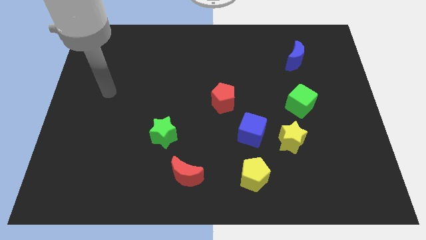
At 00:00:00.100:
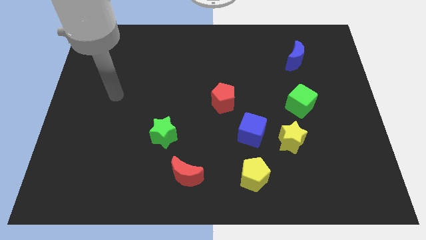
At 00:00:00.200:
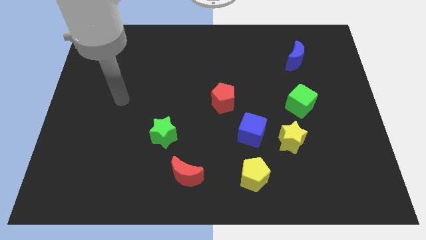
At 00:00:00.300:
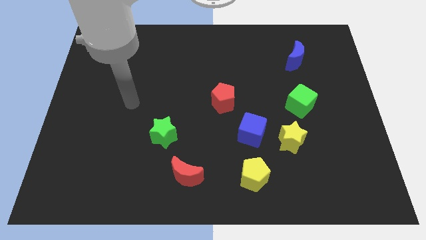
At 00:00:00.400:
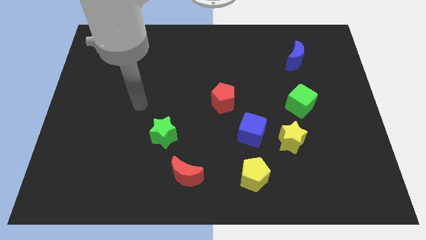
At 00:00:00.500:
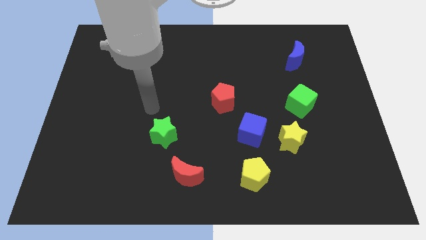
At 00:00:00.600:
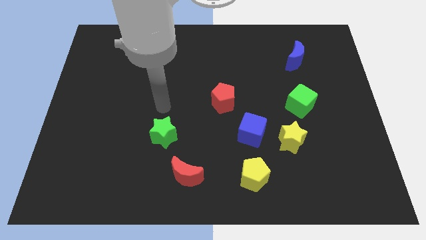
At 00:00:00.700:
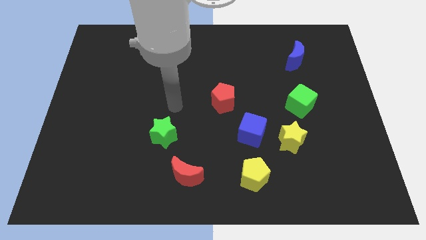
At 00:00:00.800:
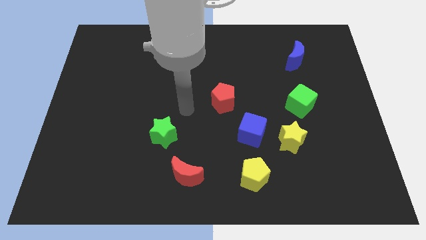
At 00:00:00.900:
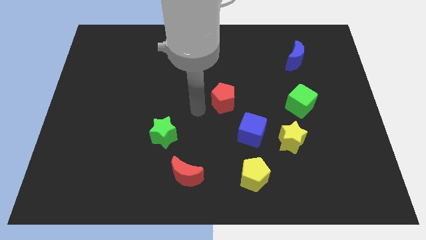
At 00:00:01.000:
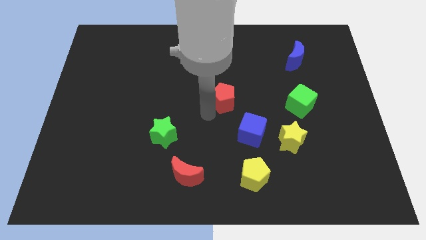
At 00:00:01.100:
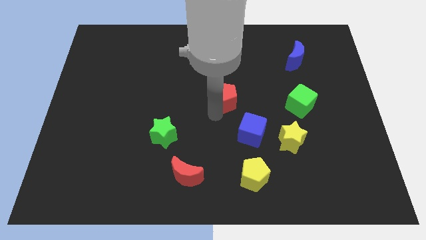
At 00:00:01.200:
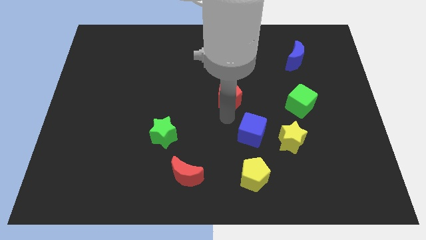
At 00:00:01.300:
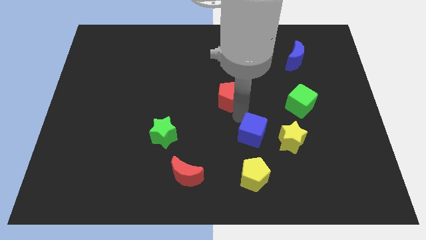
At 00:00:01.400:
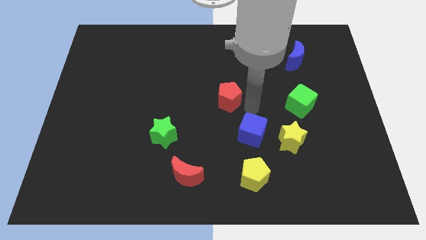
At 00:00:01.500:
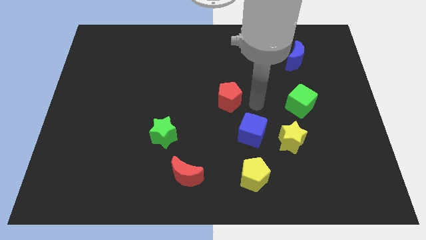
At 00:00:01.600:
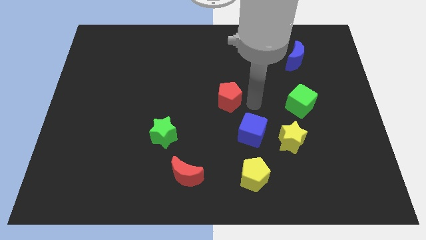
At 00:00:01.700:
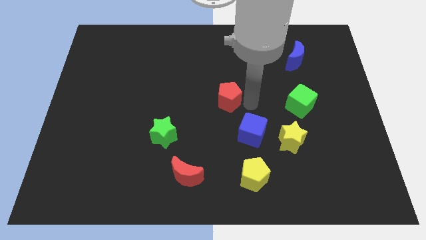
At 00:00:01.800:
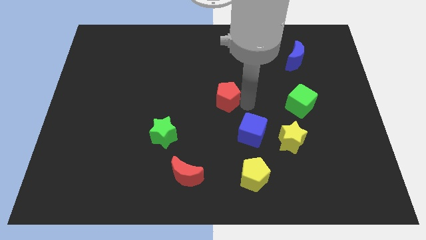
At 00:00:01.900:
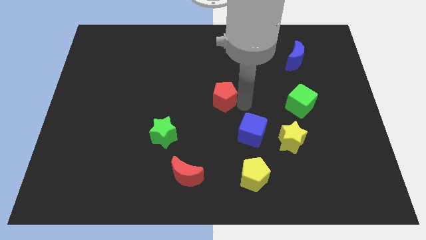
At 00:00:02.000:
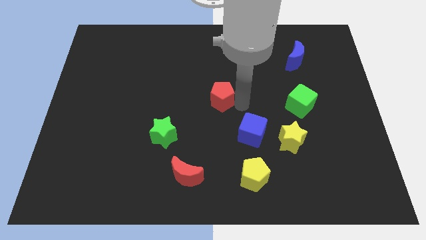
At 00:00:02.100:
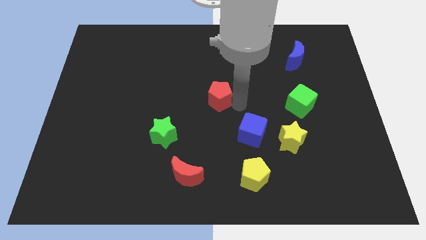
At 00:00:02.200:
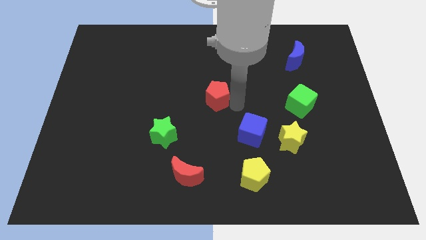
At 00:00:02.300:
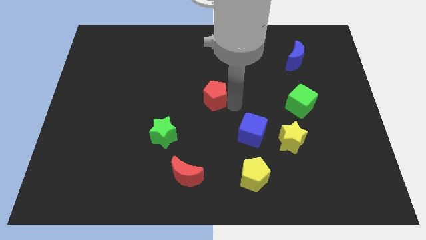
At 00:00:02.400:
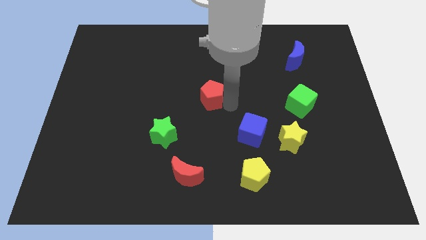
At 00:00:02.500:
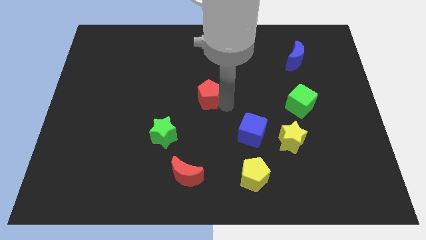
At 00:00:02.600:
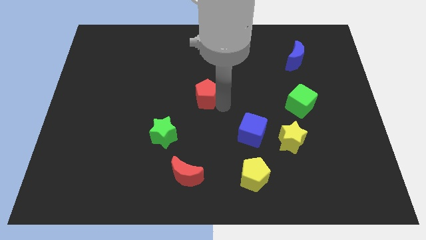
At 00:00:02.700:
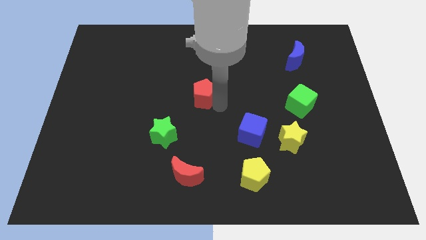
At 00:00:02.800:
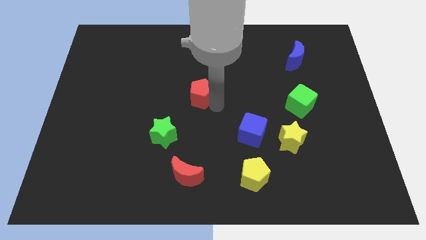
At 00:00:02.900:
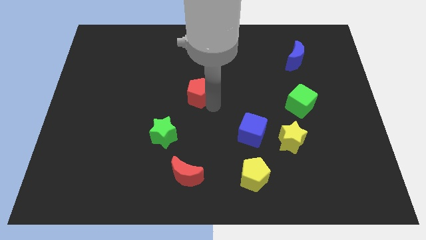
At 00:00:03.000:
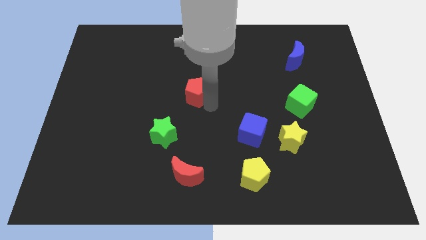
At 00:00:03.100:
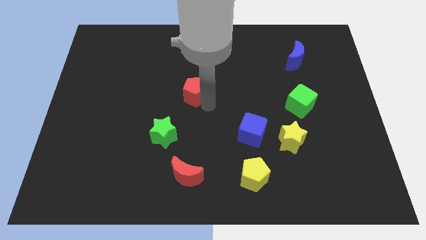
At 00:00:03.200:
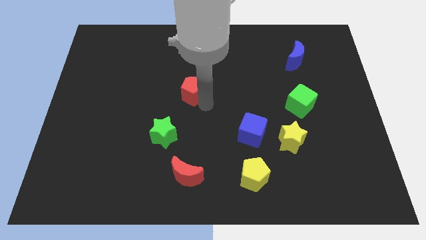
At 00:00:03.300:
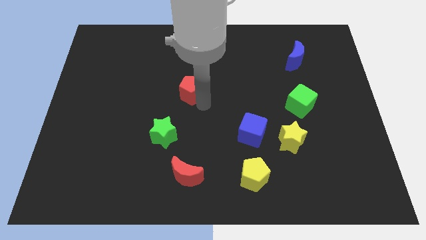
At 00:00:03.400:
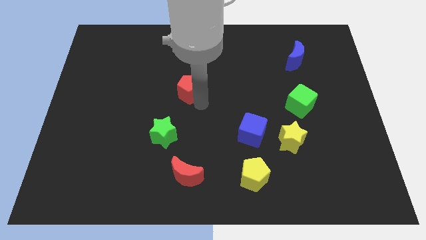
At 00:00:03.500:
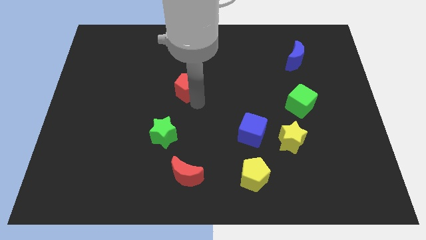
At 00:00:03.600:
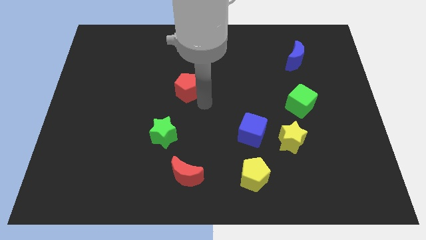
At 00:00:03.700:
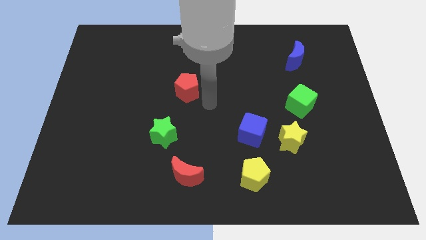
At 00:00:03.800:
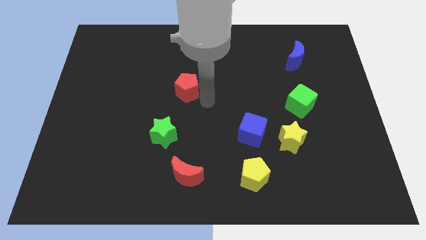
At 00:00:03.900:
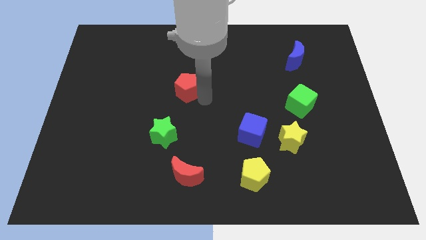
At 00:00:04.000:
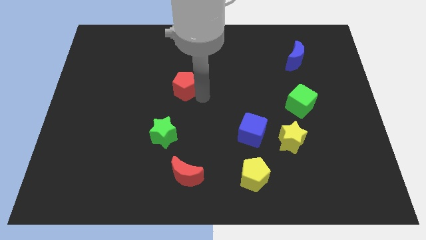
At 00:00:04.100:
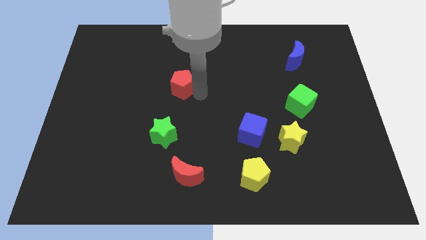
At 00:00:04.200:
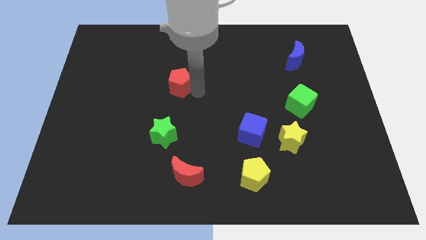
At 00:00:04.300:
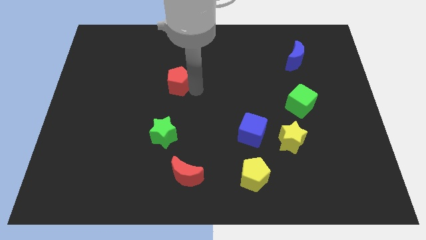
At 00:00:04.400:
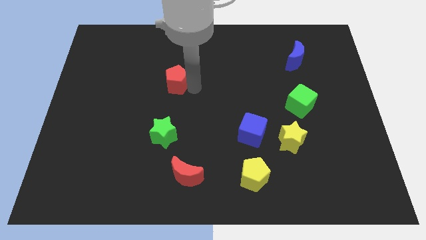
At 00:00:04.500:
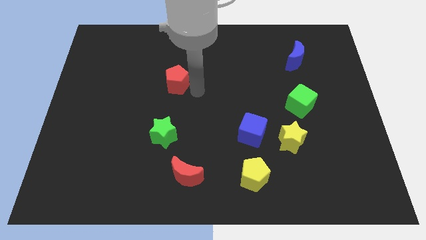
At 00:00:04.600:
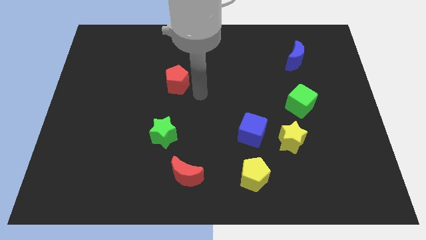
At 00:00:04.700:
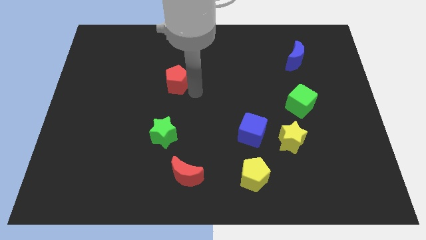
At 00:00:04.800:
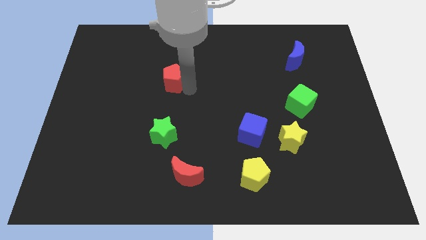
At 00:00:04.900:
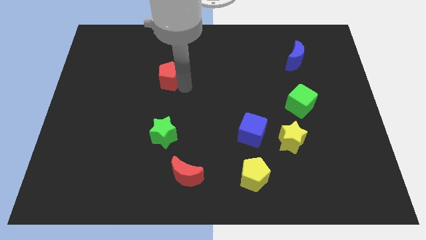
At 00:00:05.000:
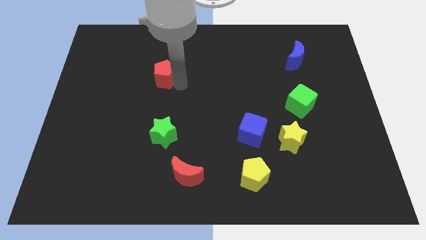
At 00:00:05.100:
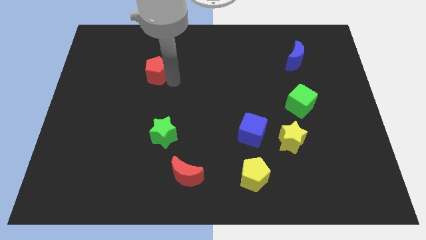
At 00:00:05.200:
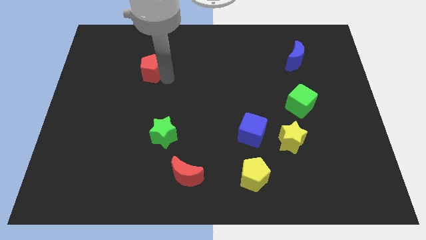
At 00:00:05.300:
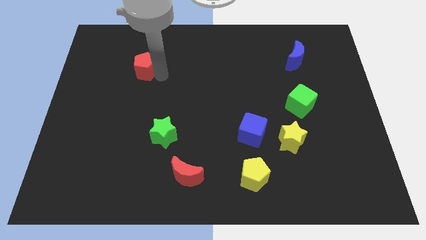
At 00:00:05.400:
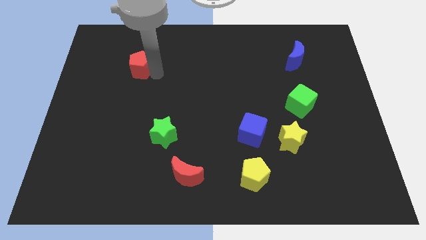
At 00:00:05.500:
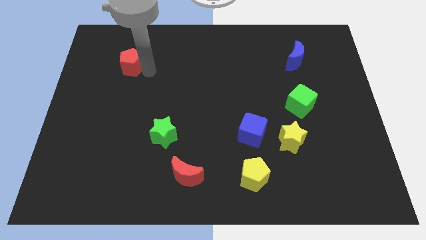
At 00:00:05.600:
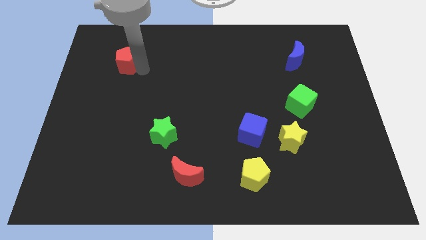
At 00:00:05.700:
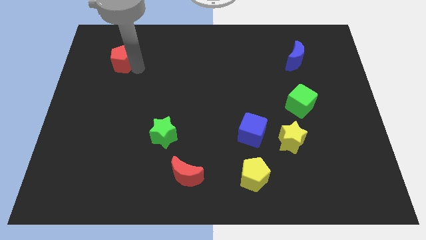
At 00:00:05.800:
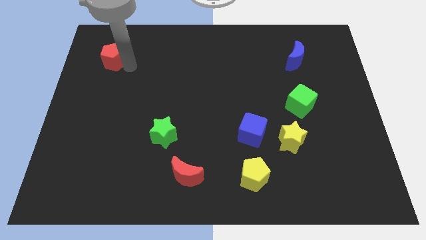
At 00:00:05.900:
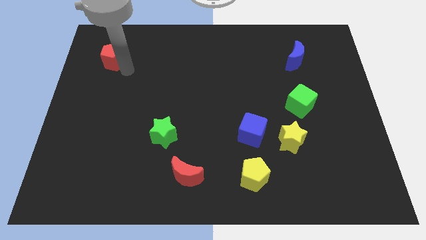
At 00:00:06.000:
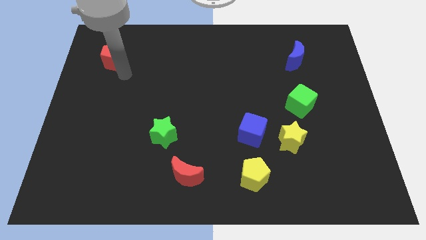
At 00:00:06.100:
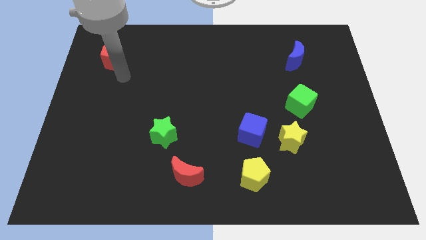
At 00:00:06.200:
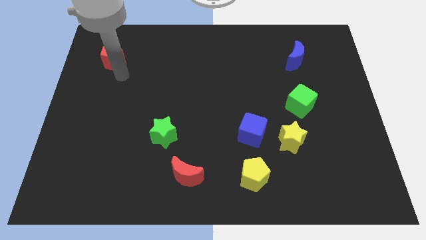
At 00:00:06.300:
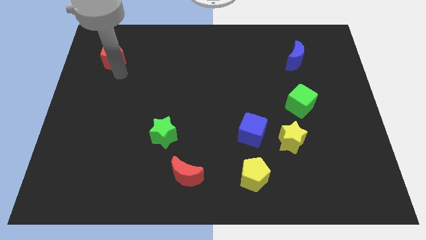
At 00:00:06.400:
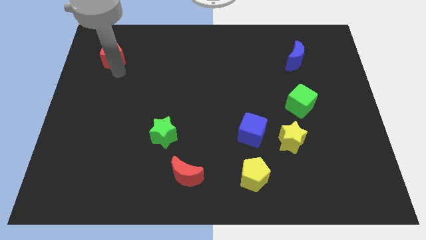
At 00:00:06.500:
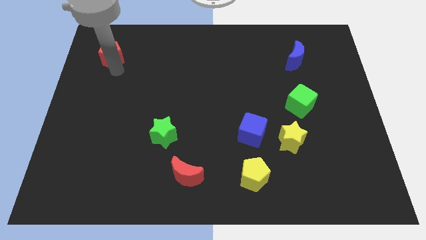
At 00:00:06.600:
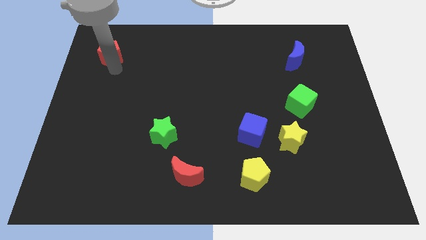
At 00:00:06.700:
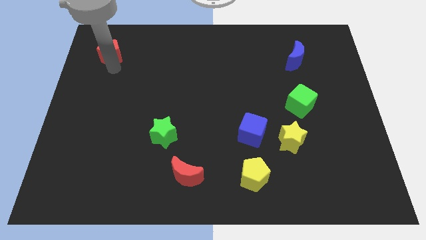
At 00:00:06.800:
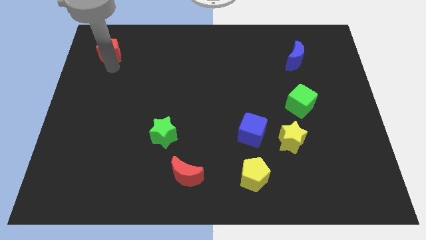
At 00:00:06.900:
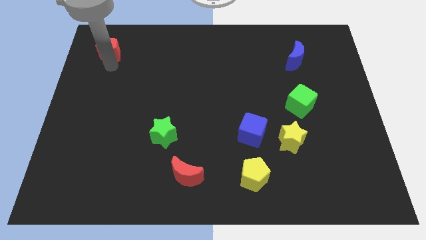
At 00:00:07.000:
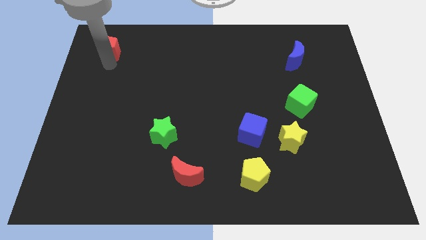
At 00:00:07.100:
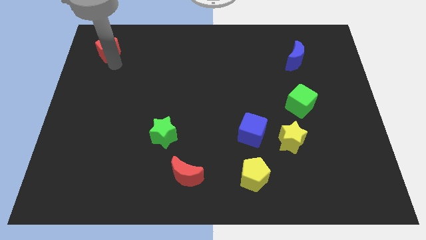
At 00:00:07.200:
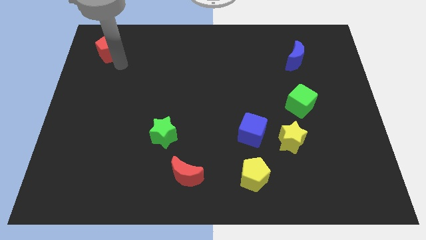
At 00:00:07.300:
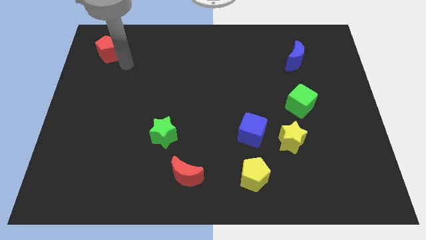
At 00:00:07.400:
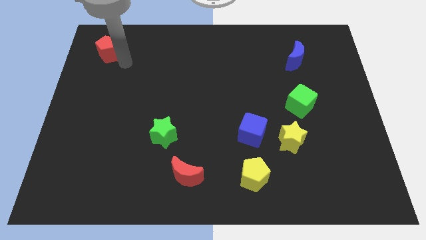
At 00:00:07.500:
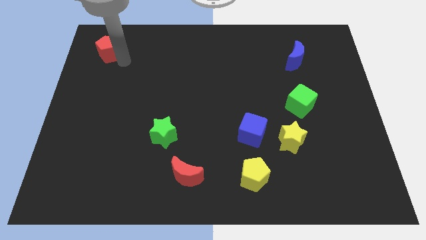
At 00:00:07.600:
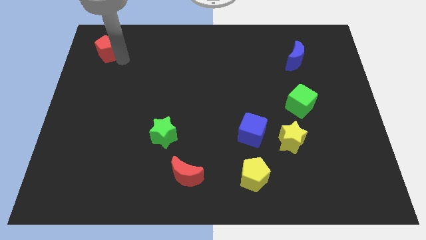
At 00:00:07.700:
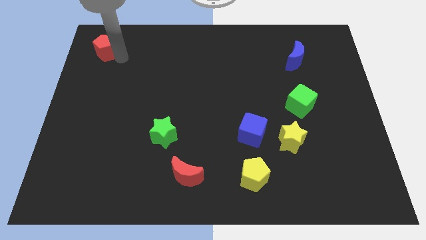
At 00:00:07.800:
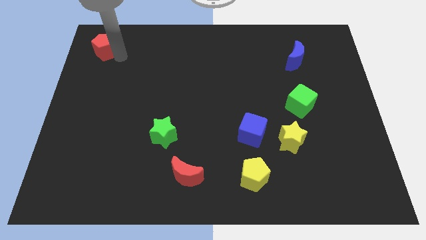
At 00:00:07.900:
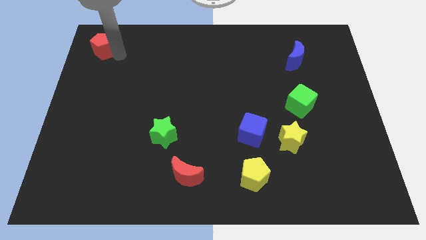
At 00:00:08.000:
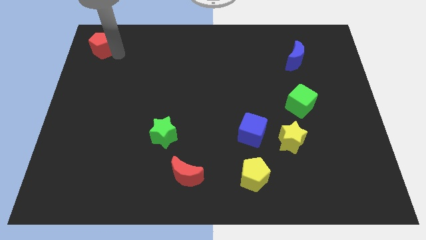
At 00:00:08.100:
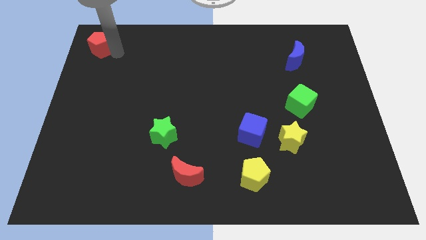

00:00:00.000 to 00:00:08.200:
put the red pentagon to the upper left corner
